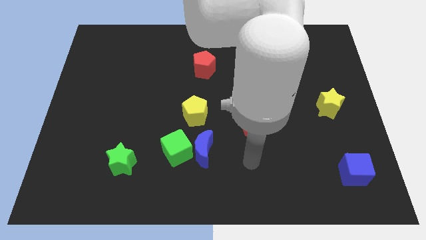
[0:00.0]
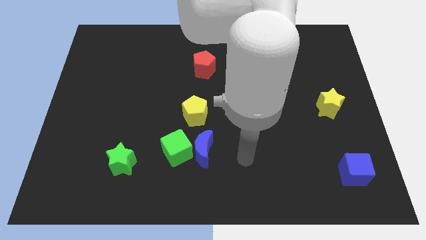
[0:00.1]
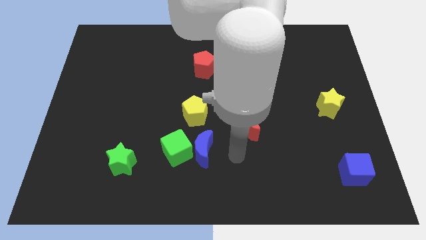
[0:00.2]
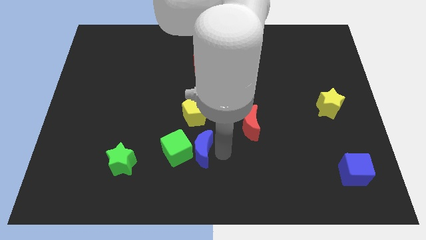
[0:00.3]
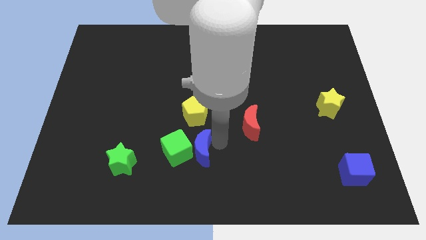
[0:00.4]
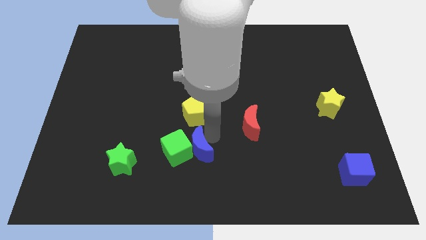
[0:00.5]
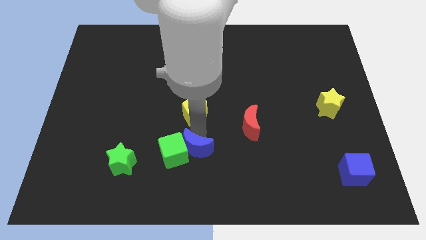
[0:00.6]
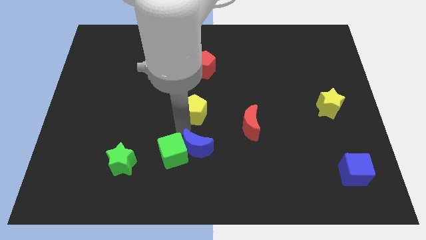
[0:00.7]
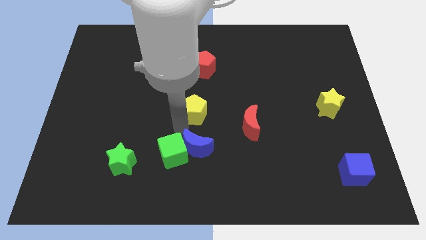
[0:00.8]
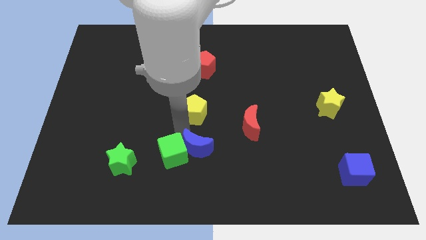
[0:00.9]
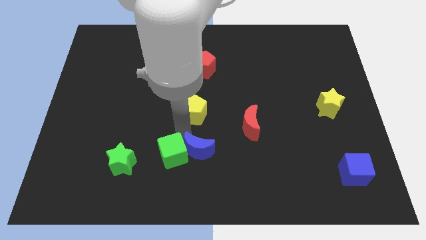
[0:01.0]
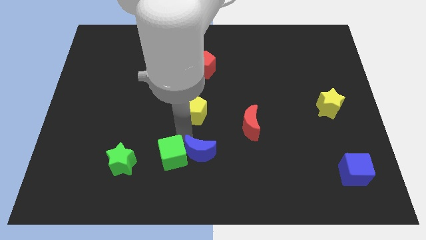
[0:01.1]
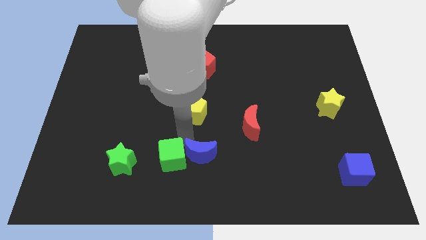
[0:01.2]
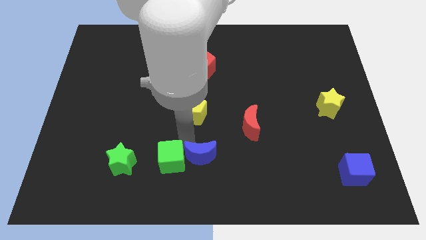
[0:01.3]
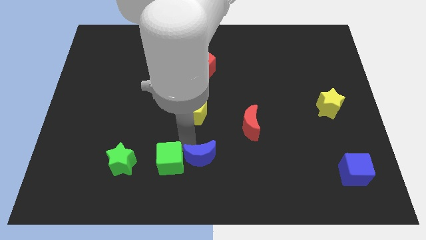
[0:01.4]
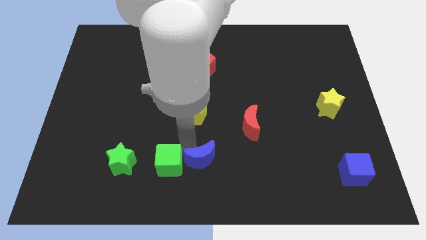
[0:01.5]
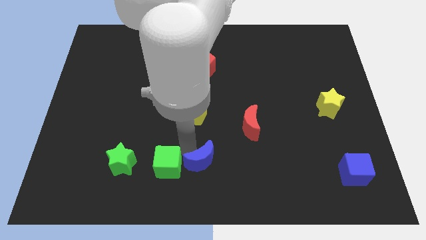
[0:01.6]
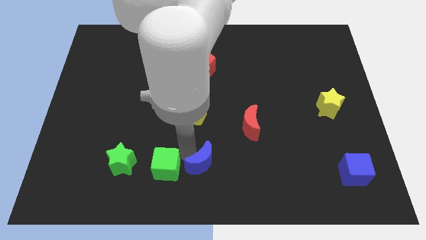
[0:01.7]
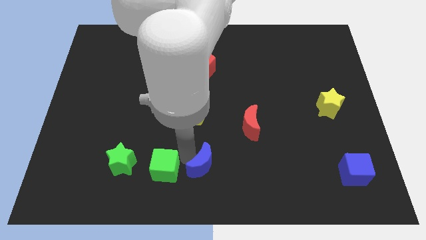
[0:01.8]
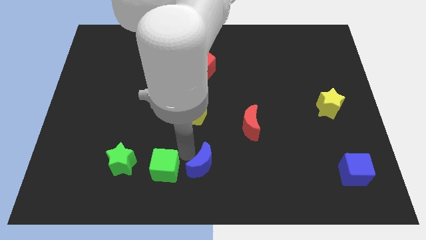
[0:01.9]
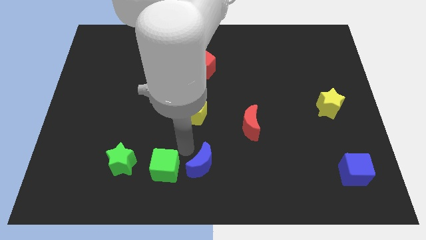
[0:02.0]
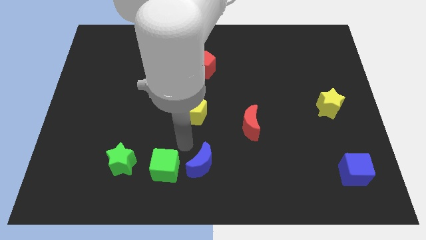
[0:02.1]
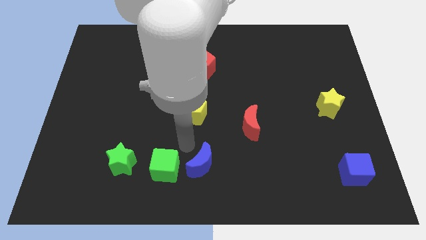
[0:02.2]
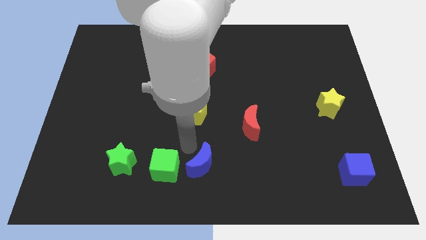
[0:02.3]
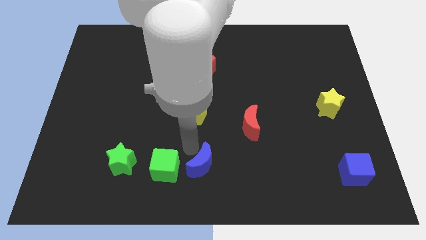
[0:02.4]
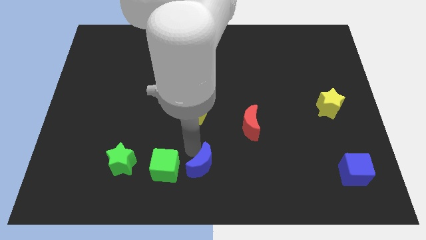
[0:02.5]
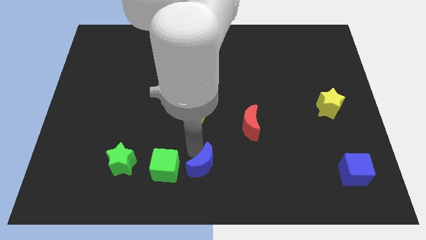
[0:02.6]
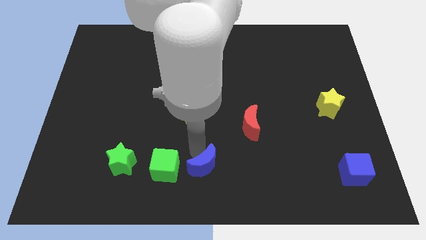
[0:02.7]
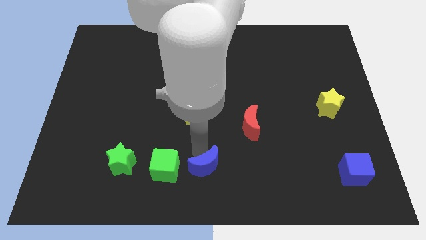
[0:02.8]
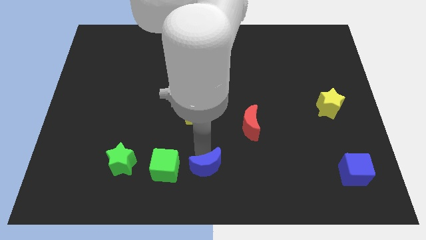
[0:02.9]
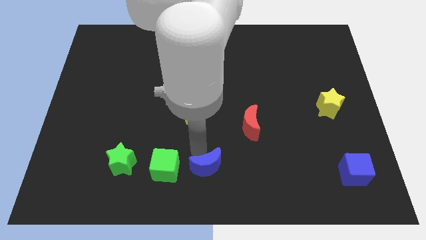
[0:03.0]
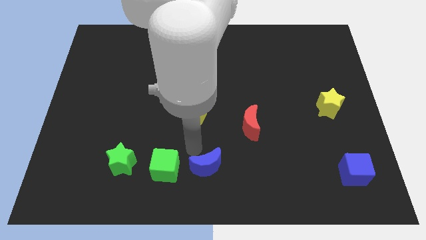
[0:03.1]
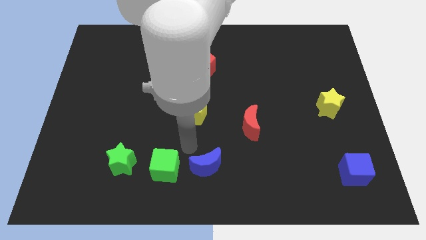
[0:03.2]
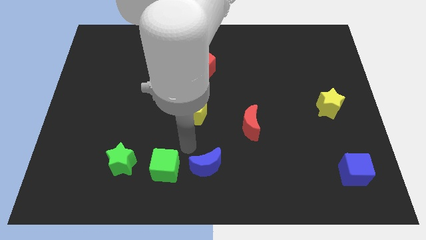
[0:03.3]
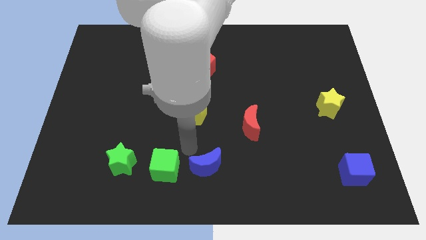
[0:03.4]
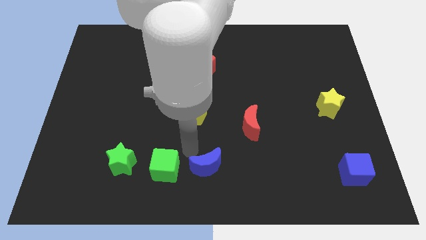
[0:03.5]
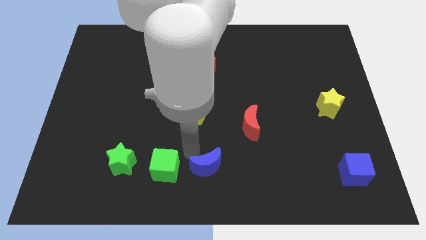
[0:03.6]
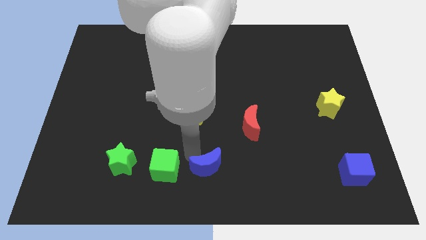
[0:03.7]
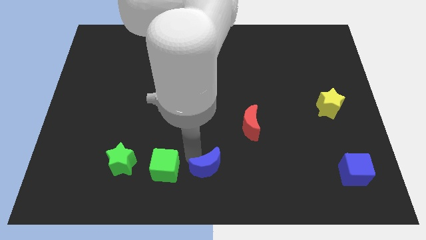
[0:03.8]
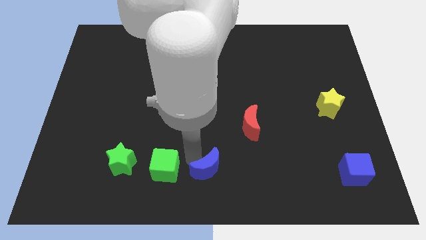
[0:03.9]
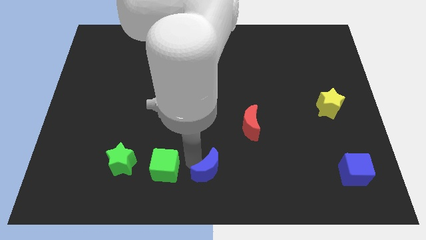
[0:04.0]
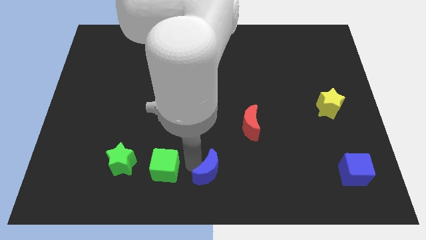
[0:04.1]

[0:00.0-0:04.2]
pull the blue moon apart from the green cube and yellow pentagon

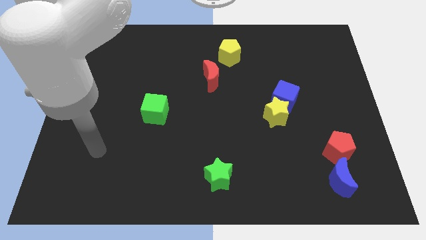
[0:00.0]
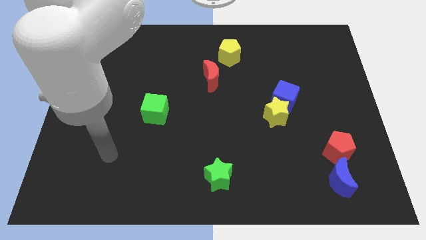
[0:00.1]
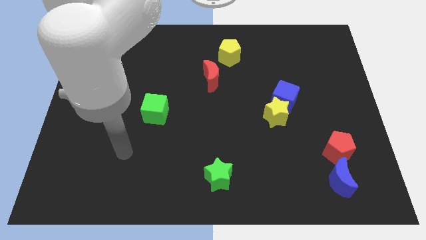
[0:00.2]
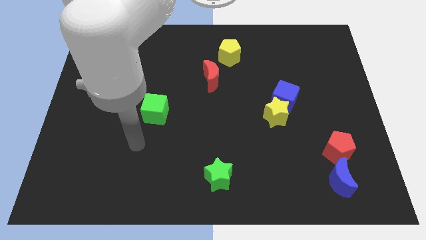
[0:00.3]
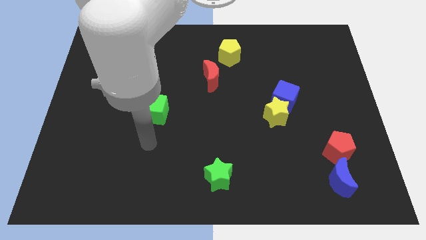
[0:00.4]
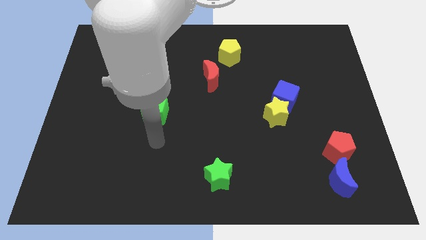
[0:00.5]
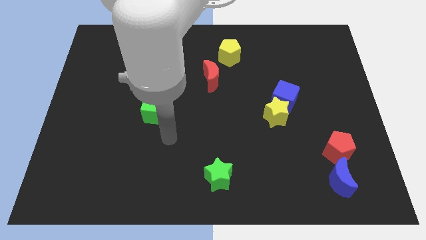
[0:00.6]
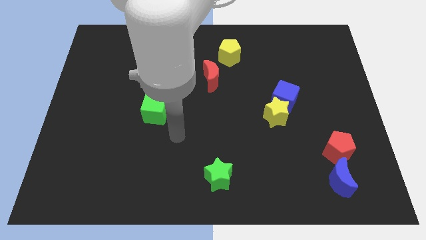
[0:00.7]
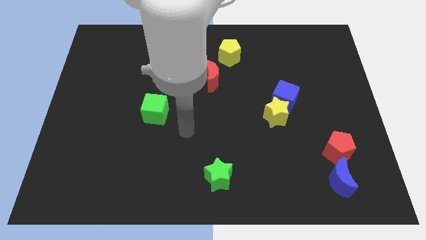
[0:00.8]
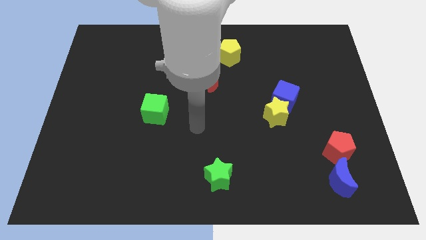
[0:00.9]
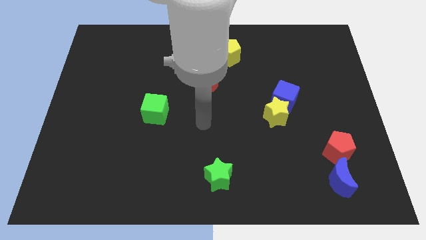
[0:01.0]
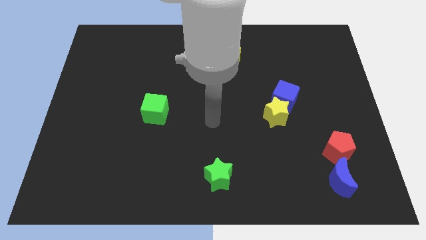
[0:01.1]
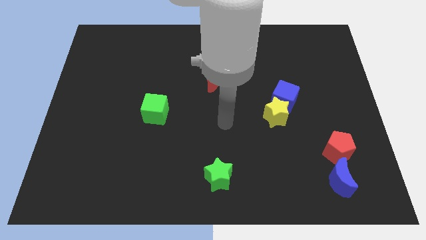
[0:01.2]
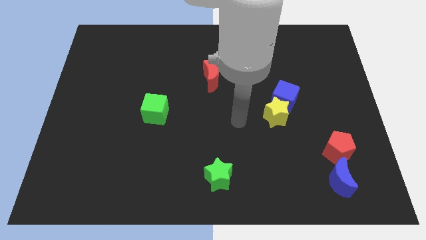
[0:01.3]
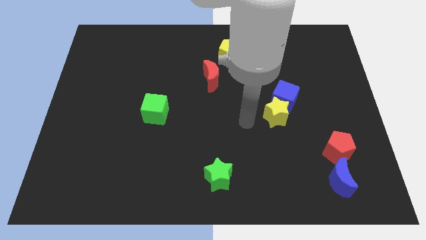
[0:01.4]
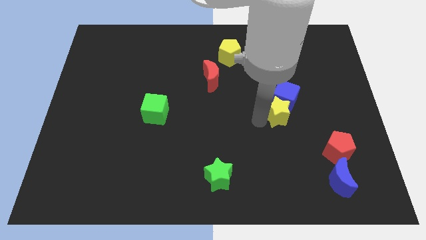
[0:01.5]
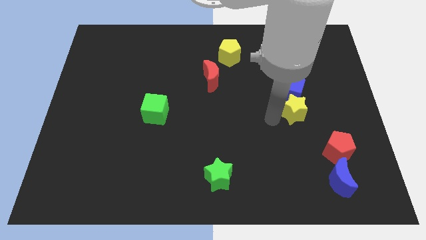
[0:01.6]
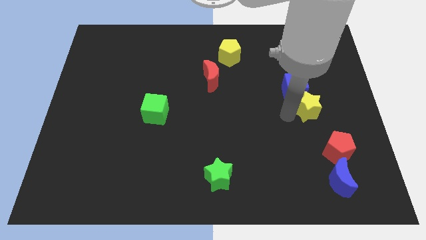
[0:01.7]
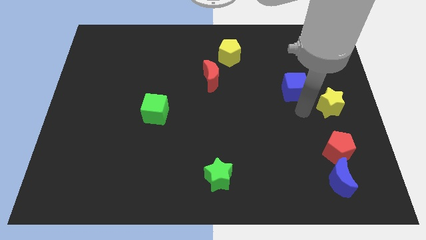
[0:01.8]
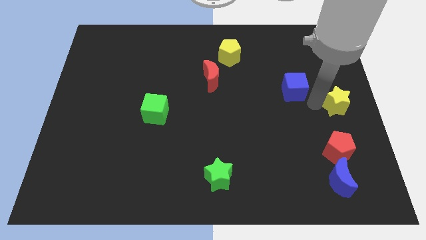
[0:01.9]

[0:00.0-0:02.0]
pull the blue cube apart from the yellow star

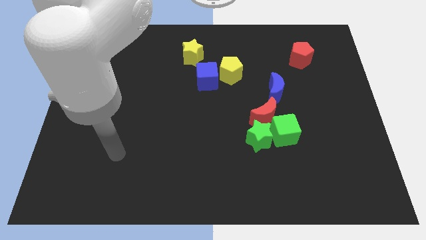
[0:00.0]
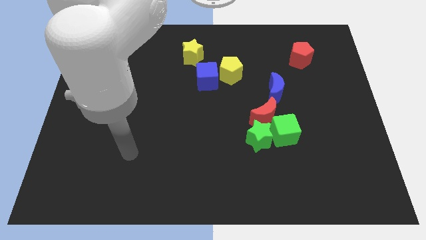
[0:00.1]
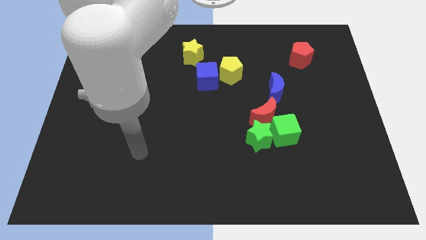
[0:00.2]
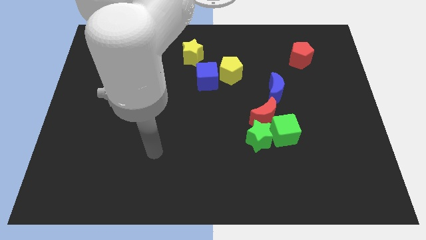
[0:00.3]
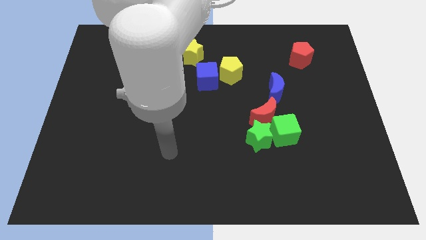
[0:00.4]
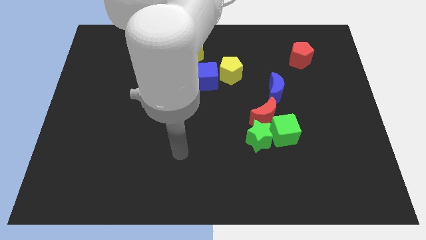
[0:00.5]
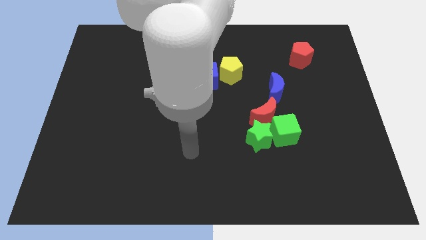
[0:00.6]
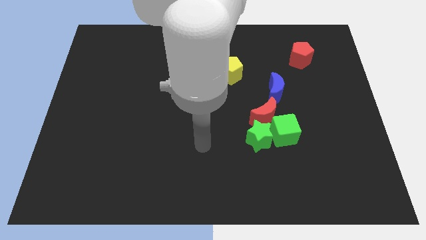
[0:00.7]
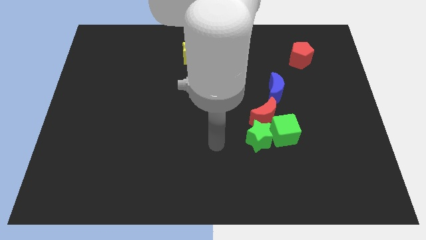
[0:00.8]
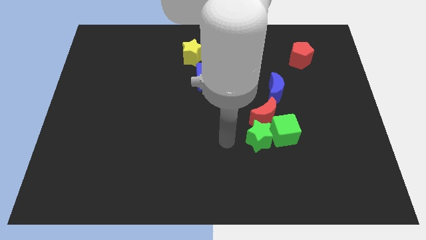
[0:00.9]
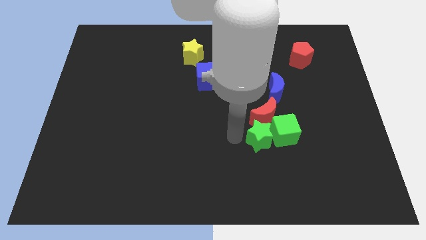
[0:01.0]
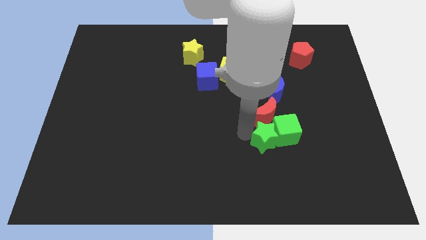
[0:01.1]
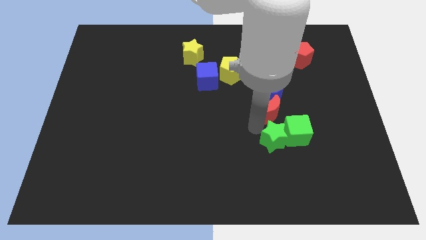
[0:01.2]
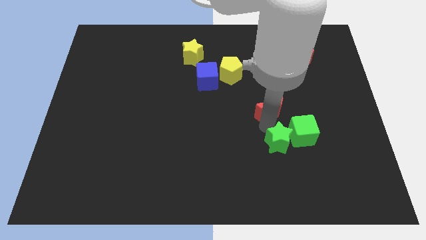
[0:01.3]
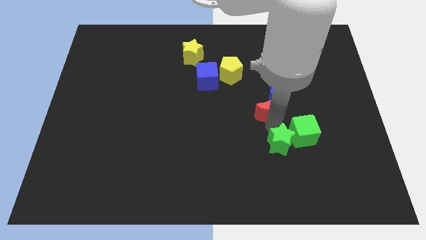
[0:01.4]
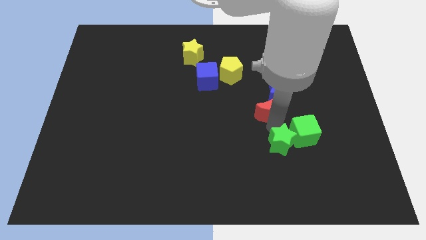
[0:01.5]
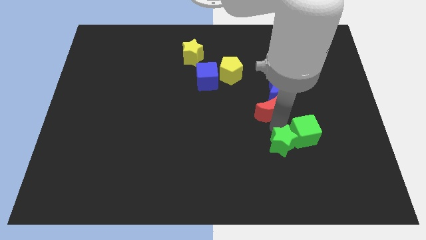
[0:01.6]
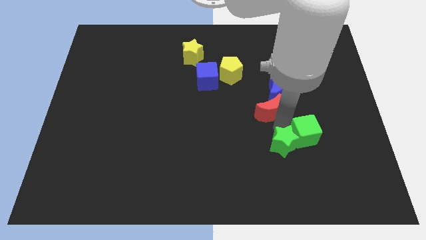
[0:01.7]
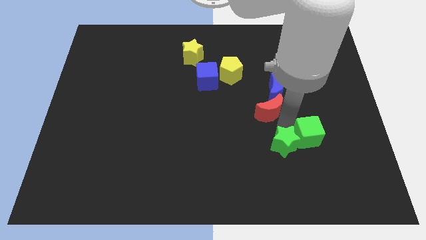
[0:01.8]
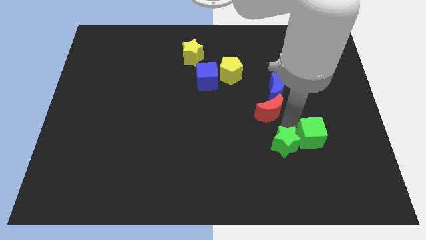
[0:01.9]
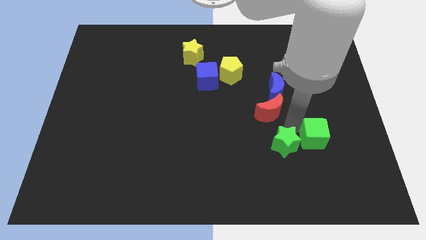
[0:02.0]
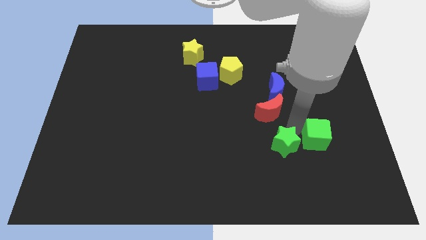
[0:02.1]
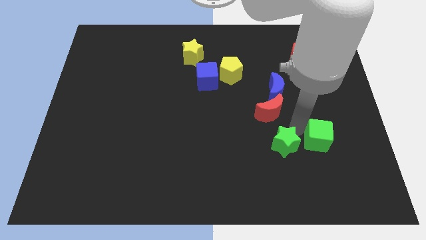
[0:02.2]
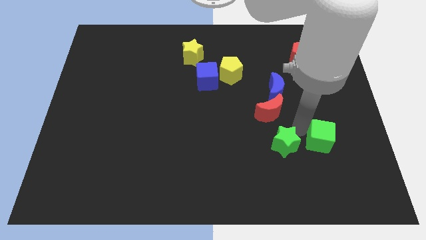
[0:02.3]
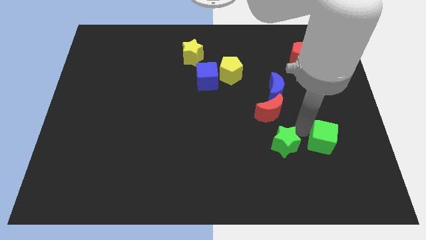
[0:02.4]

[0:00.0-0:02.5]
separate the green cube from the red moon and green star

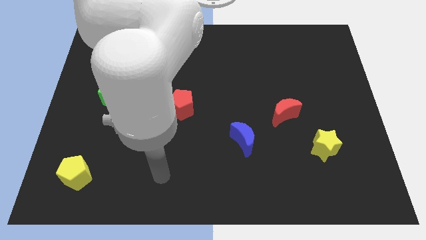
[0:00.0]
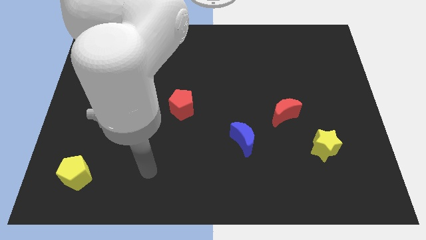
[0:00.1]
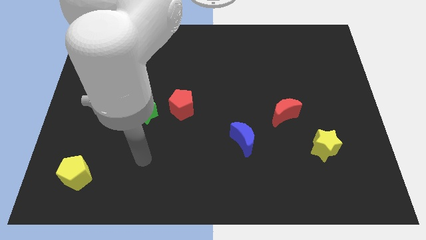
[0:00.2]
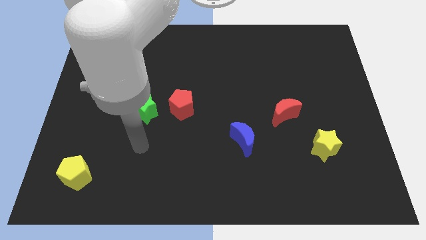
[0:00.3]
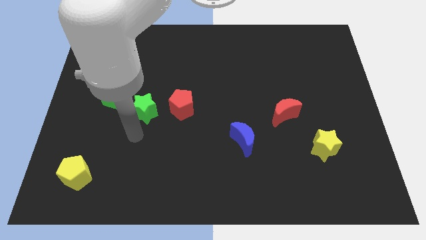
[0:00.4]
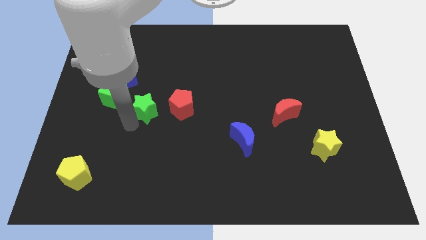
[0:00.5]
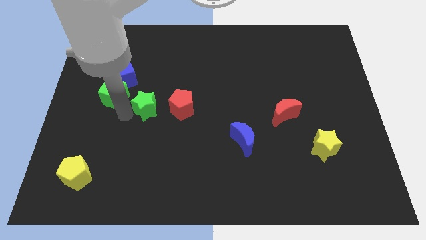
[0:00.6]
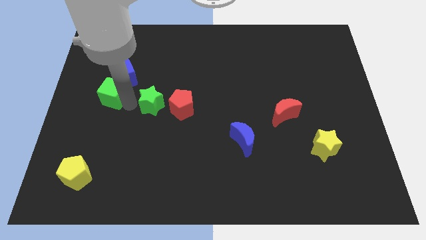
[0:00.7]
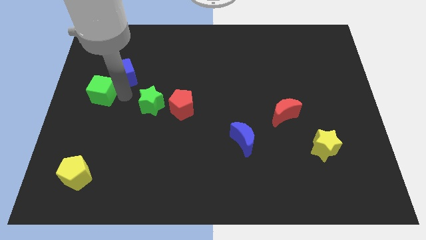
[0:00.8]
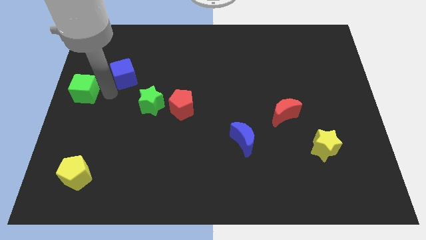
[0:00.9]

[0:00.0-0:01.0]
move the blue cube away from the green cube
